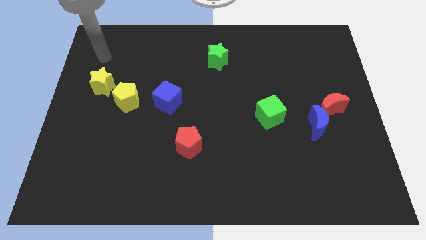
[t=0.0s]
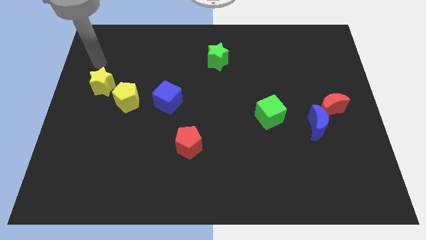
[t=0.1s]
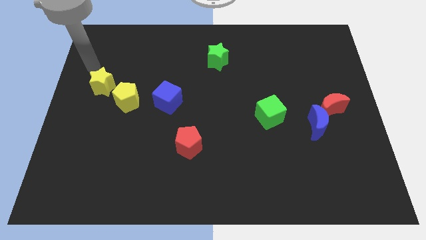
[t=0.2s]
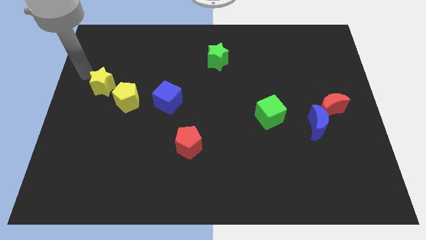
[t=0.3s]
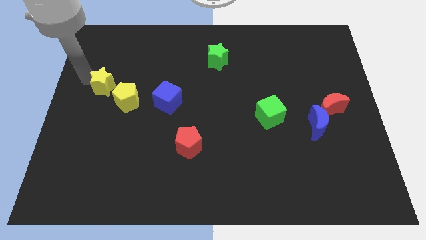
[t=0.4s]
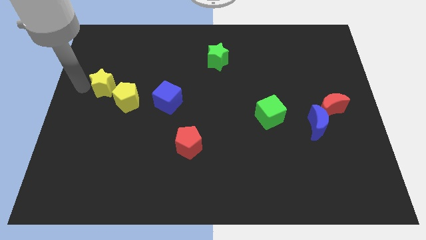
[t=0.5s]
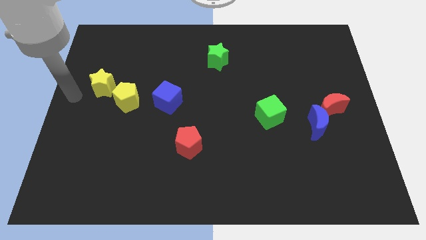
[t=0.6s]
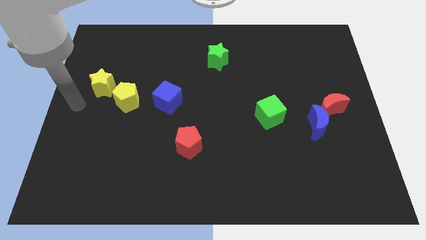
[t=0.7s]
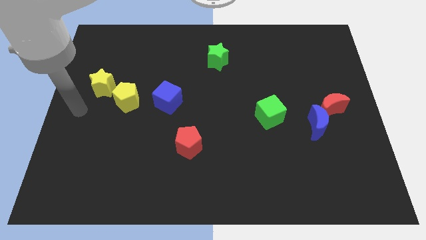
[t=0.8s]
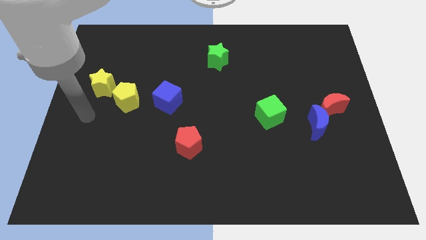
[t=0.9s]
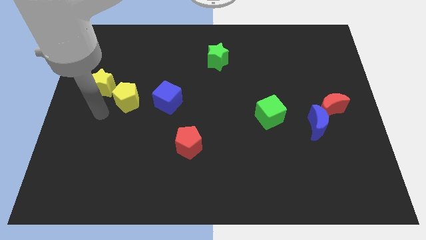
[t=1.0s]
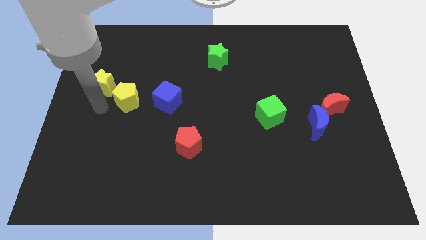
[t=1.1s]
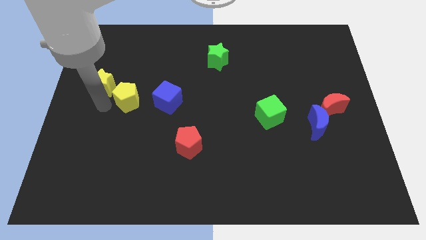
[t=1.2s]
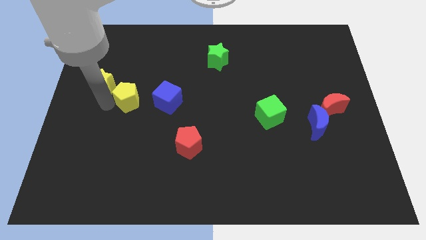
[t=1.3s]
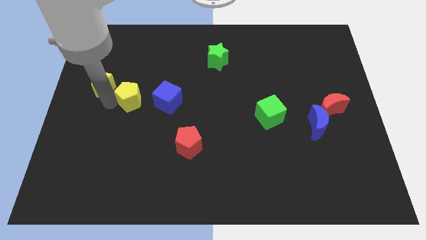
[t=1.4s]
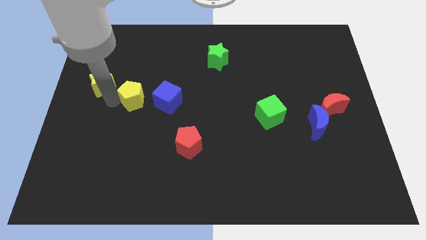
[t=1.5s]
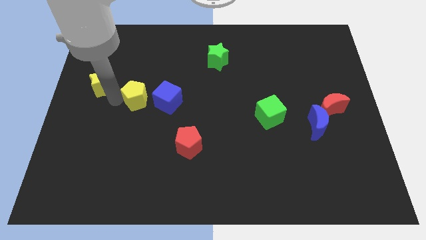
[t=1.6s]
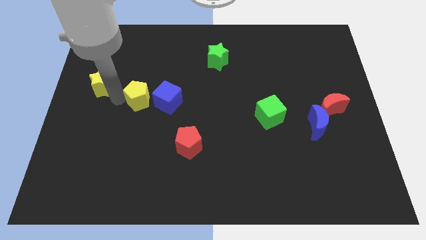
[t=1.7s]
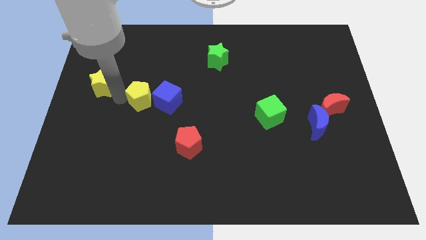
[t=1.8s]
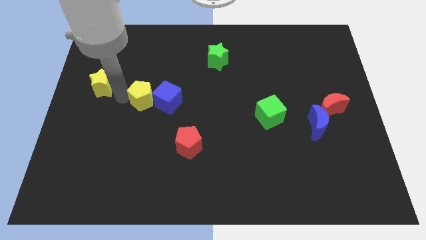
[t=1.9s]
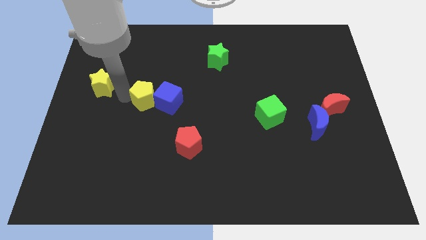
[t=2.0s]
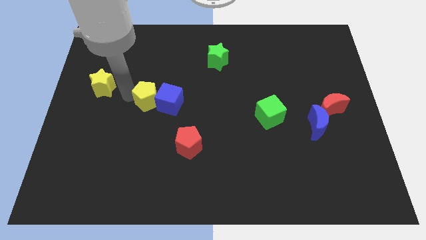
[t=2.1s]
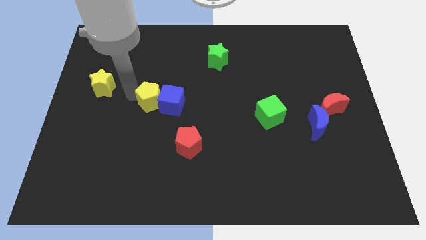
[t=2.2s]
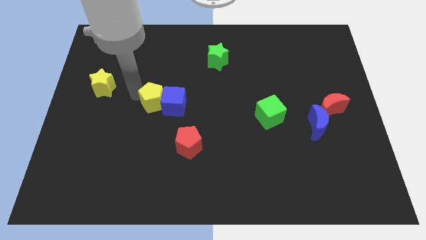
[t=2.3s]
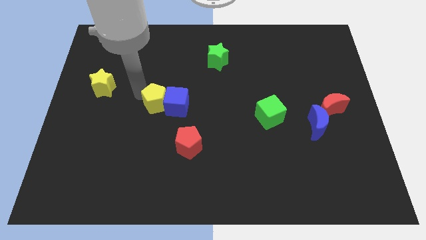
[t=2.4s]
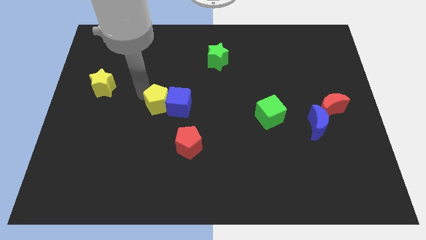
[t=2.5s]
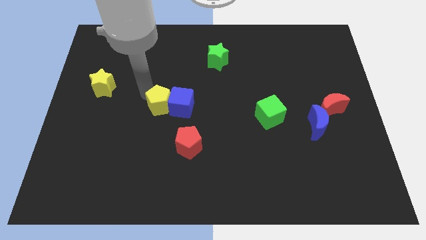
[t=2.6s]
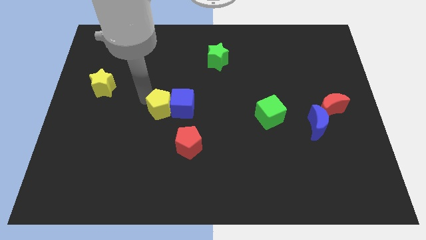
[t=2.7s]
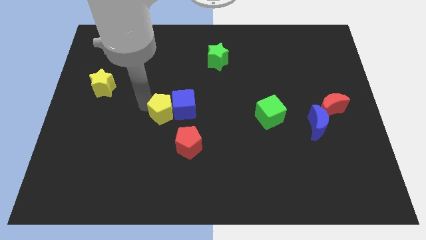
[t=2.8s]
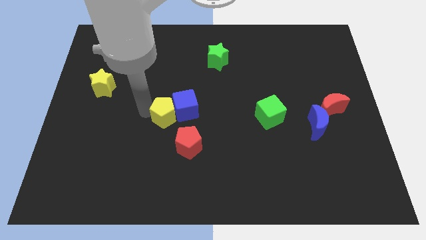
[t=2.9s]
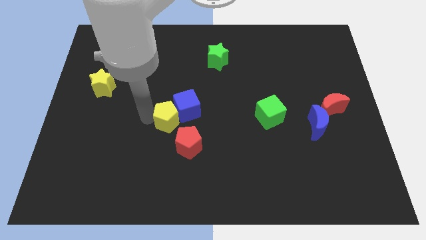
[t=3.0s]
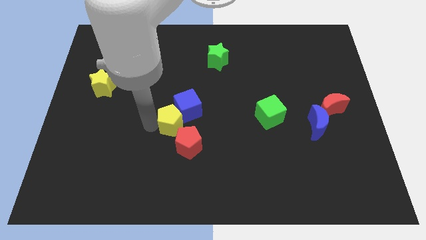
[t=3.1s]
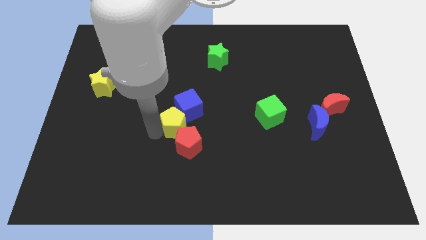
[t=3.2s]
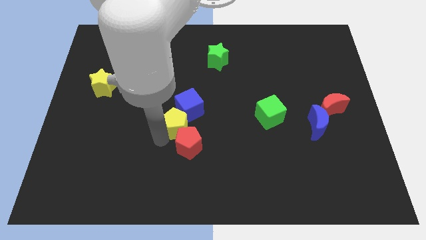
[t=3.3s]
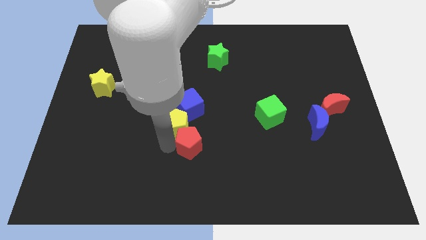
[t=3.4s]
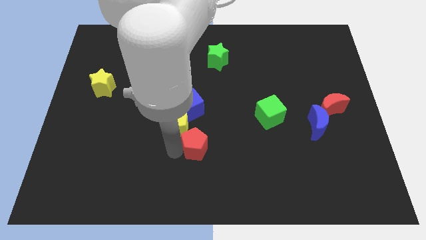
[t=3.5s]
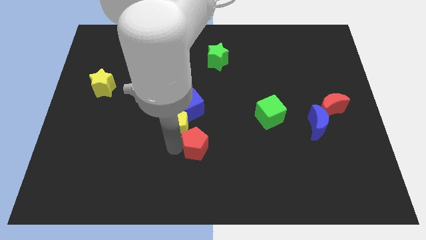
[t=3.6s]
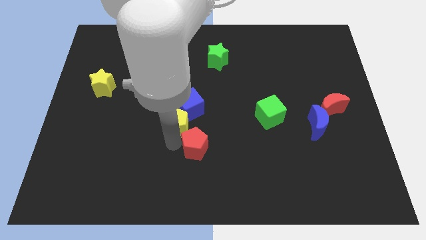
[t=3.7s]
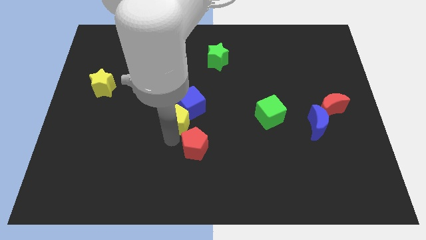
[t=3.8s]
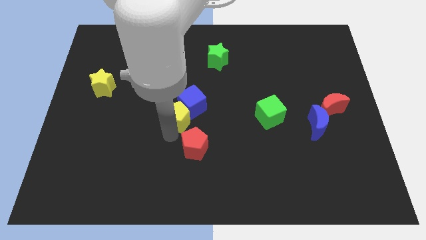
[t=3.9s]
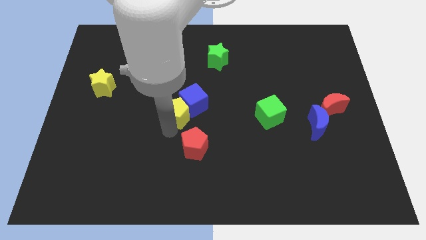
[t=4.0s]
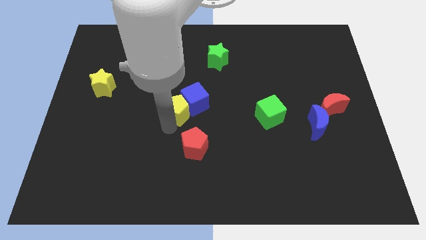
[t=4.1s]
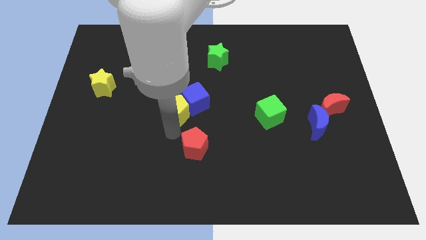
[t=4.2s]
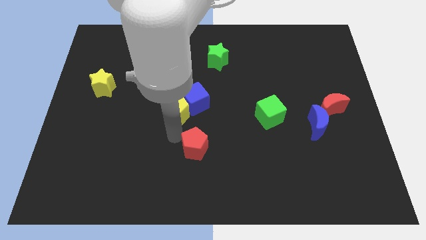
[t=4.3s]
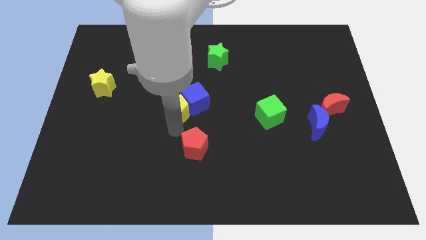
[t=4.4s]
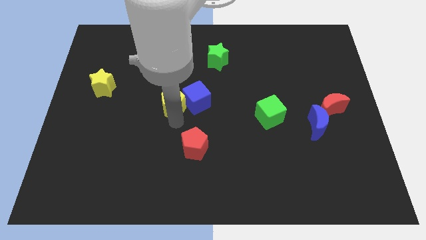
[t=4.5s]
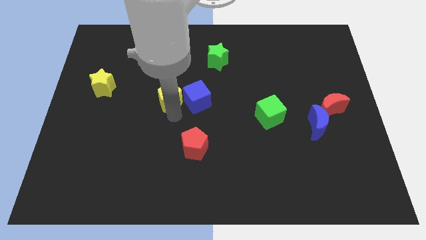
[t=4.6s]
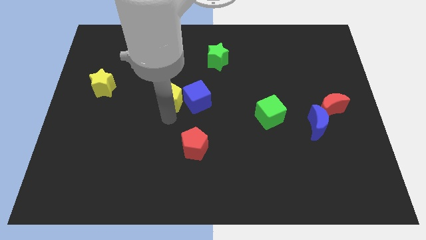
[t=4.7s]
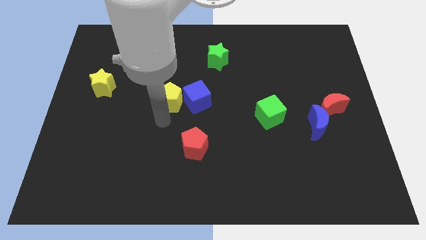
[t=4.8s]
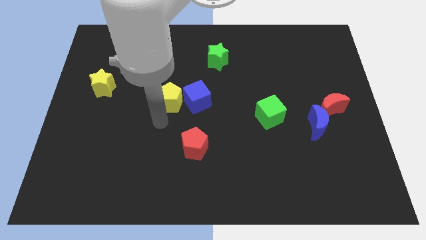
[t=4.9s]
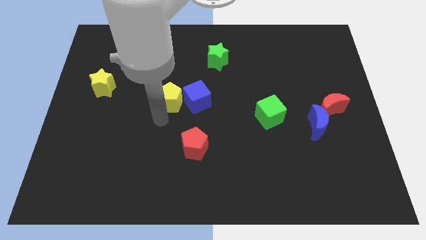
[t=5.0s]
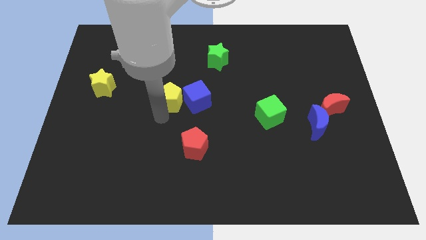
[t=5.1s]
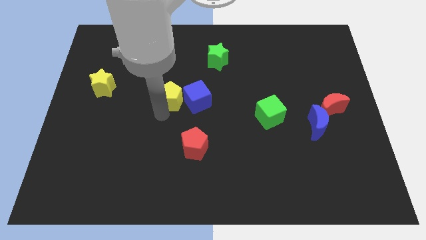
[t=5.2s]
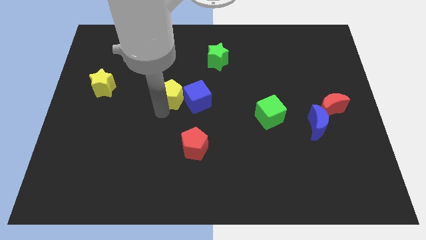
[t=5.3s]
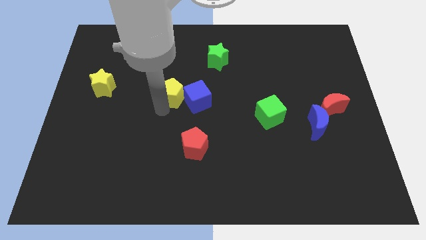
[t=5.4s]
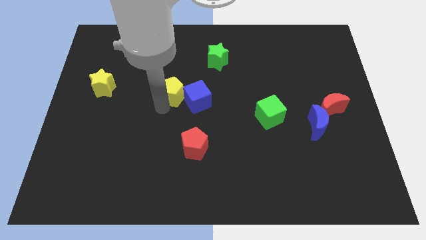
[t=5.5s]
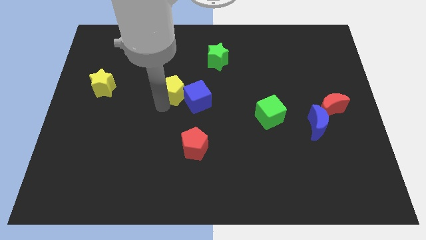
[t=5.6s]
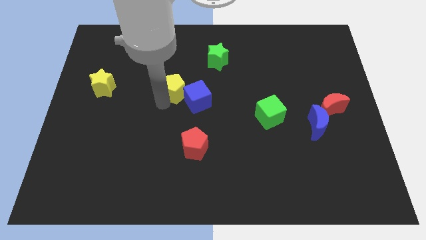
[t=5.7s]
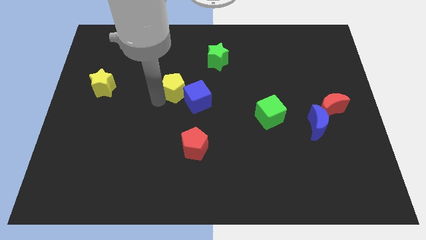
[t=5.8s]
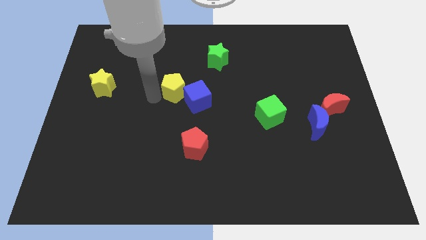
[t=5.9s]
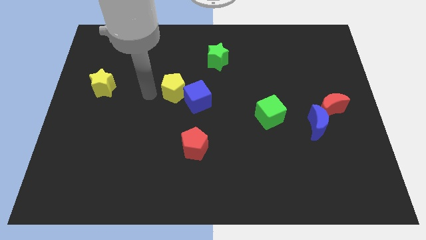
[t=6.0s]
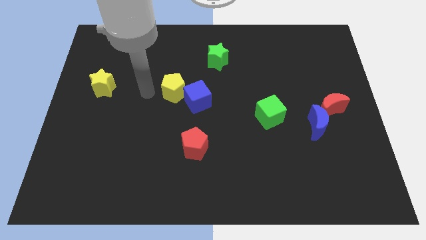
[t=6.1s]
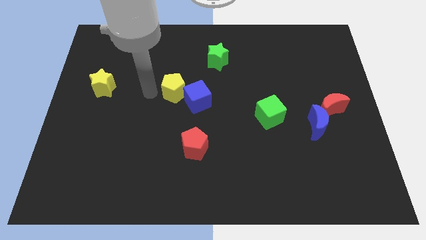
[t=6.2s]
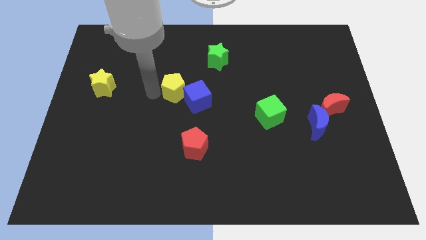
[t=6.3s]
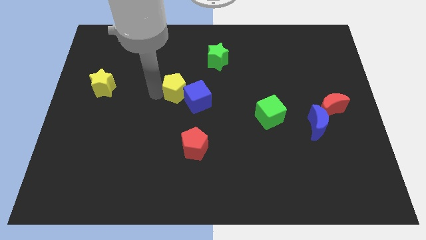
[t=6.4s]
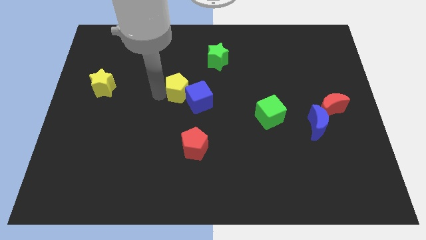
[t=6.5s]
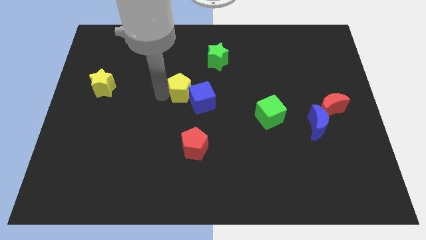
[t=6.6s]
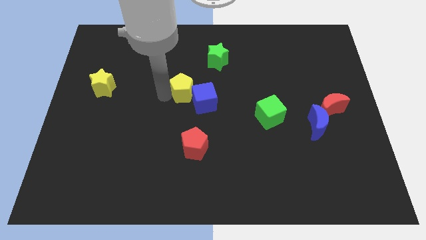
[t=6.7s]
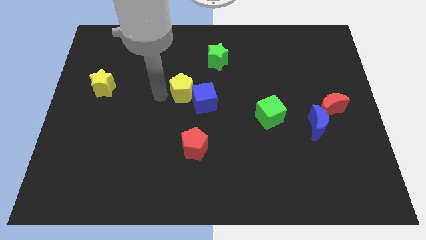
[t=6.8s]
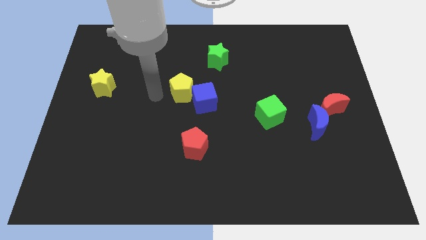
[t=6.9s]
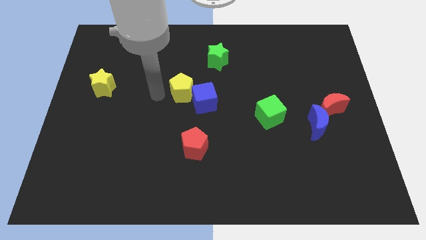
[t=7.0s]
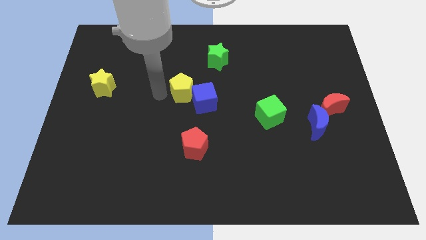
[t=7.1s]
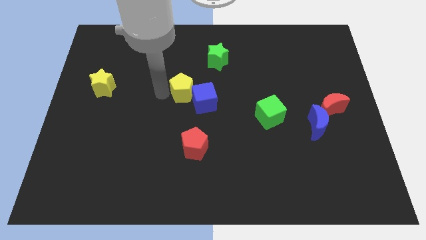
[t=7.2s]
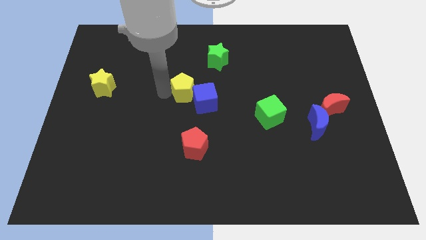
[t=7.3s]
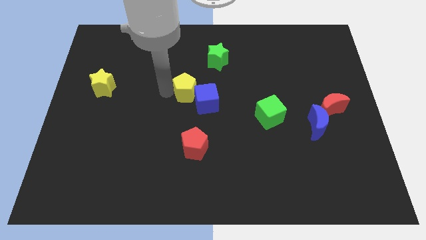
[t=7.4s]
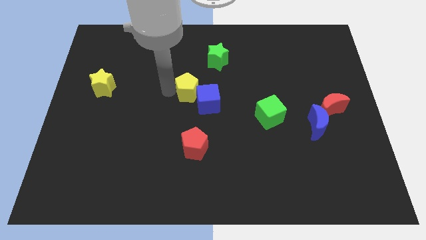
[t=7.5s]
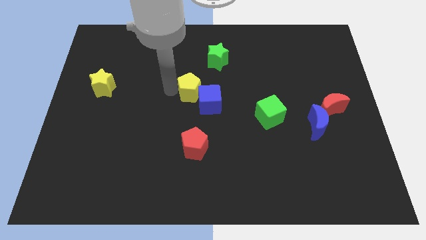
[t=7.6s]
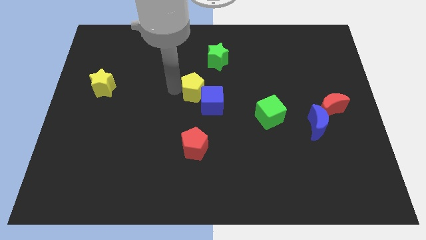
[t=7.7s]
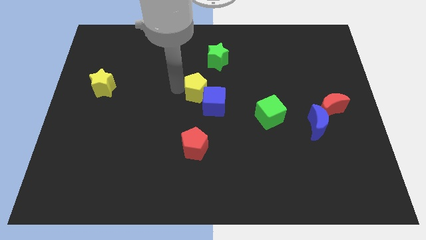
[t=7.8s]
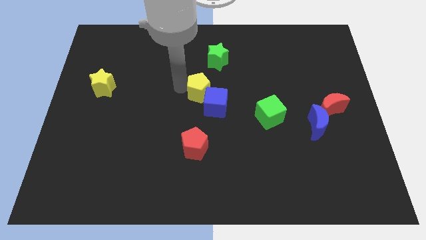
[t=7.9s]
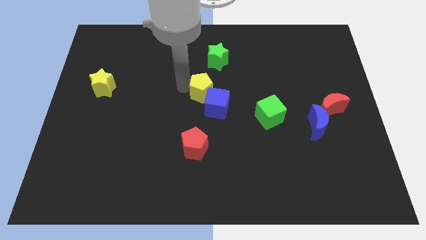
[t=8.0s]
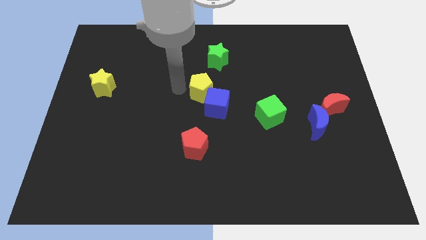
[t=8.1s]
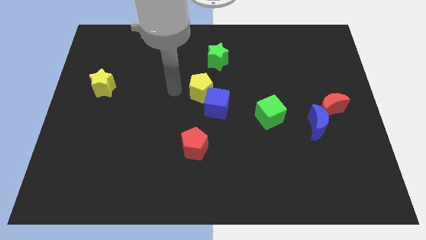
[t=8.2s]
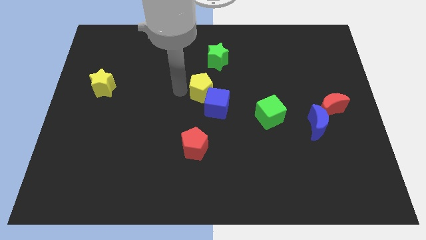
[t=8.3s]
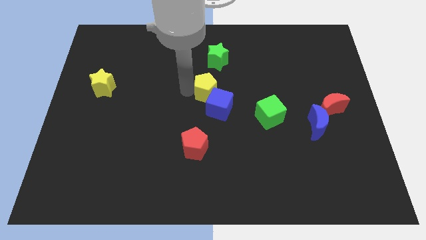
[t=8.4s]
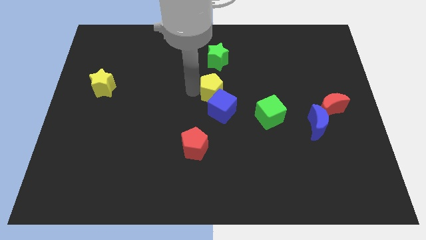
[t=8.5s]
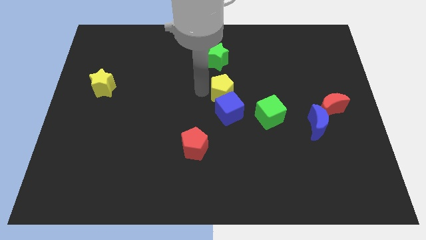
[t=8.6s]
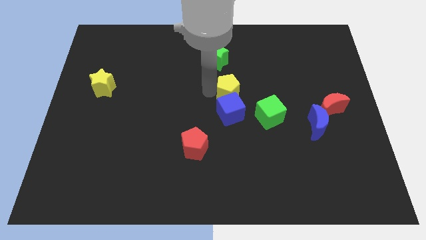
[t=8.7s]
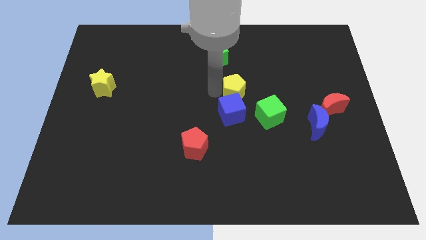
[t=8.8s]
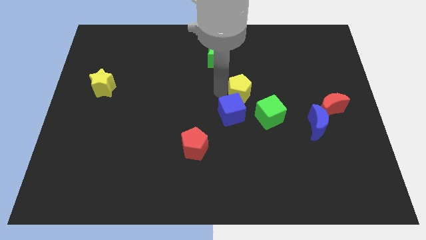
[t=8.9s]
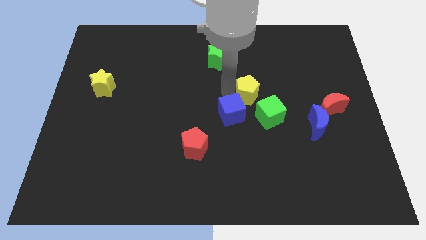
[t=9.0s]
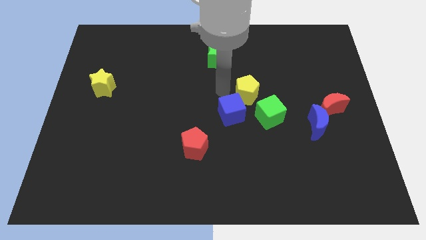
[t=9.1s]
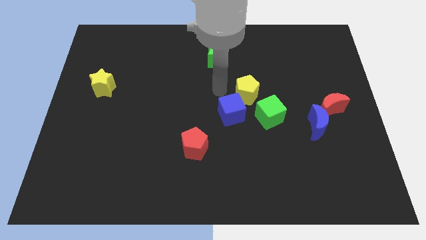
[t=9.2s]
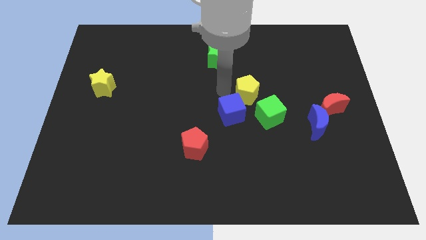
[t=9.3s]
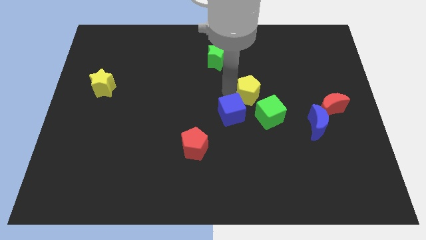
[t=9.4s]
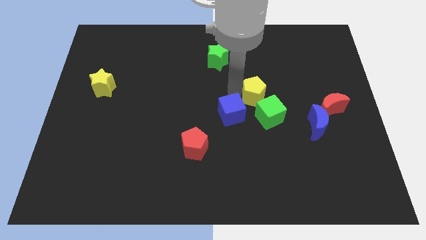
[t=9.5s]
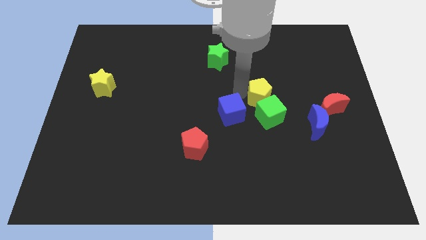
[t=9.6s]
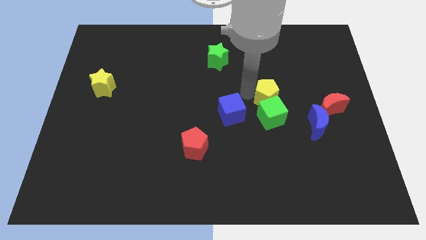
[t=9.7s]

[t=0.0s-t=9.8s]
move the yellow pentagon left of the red moon
